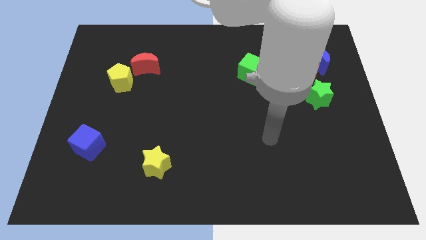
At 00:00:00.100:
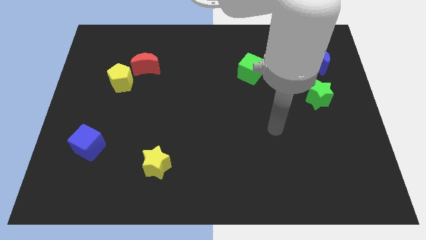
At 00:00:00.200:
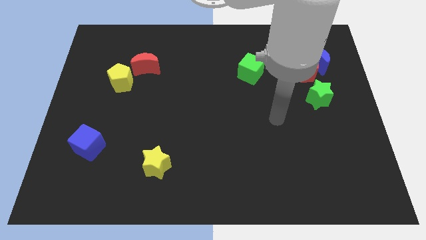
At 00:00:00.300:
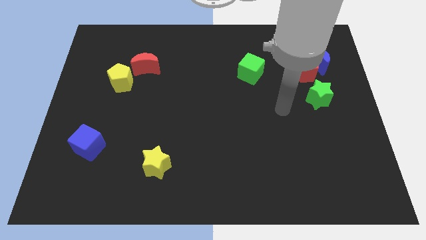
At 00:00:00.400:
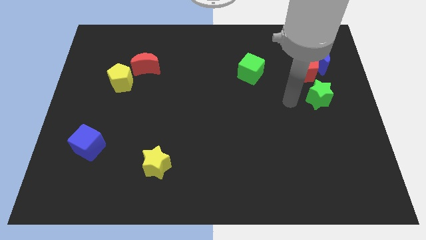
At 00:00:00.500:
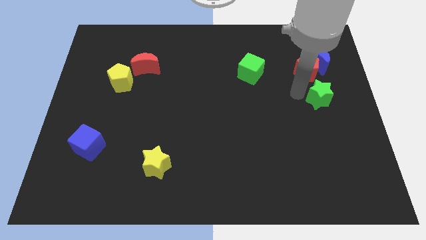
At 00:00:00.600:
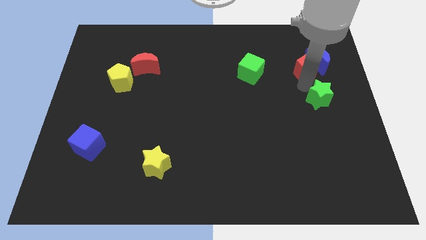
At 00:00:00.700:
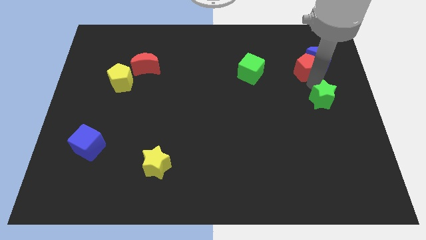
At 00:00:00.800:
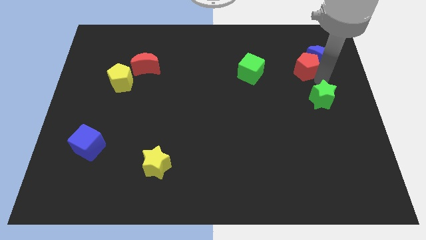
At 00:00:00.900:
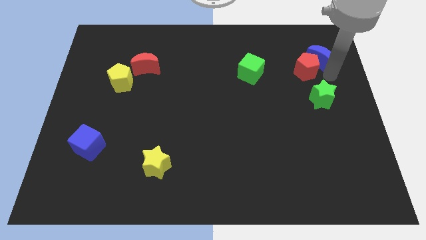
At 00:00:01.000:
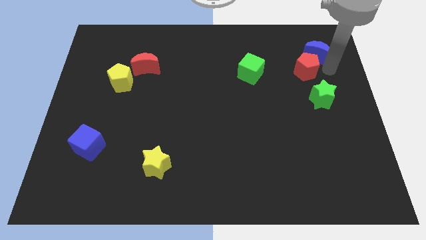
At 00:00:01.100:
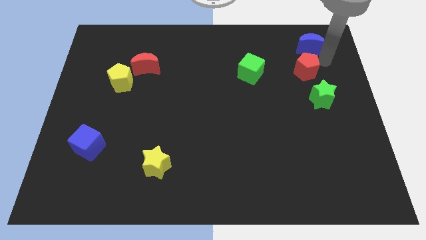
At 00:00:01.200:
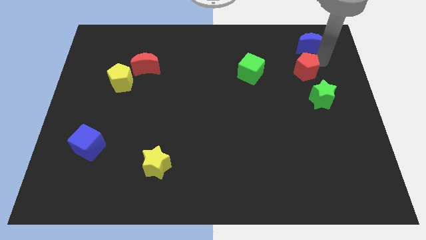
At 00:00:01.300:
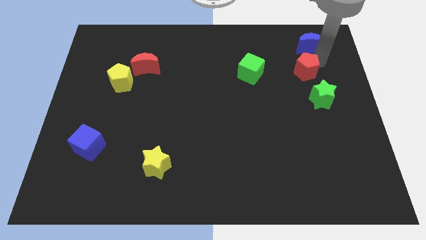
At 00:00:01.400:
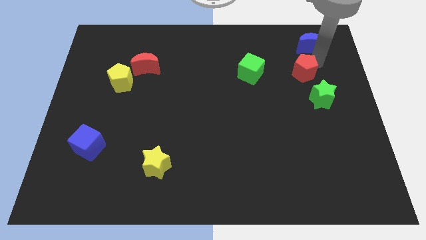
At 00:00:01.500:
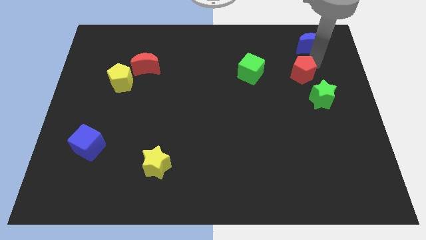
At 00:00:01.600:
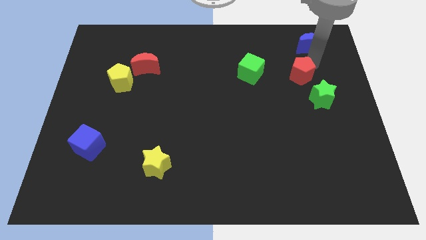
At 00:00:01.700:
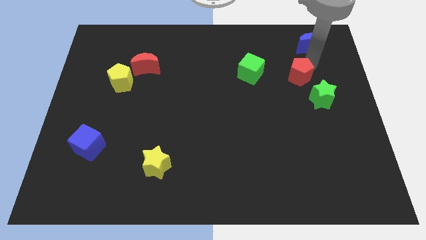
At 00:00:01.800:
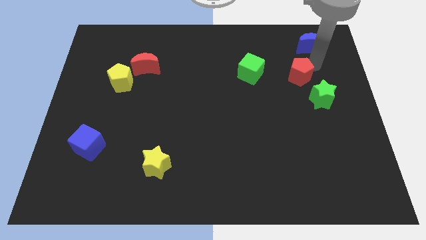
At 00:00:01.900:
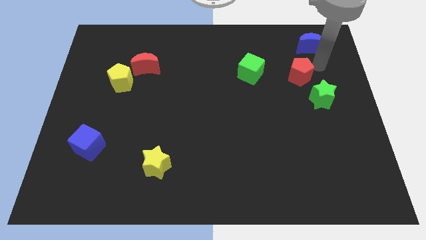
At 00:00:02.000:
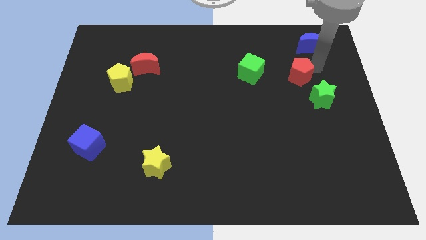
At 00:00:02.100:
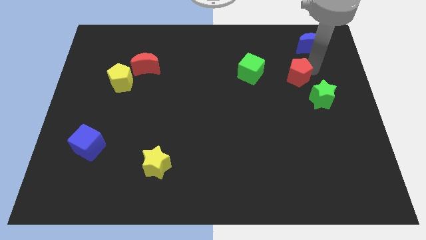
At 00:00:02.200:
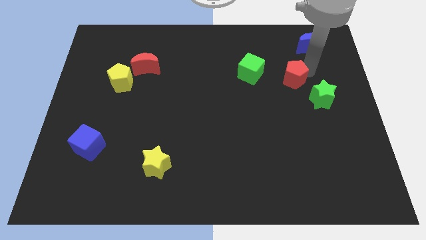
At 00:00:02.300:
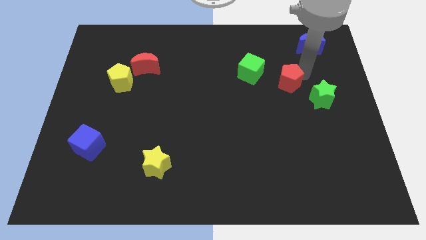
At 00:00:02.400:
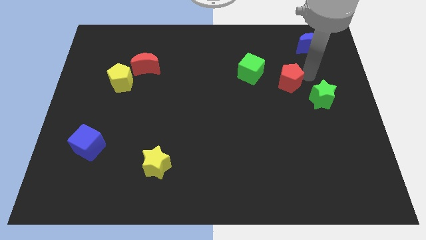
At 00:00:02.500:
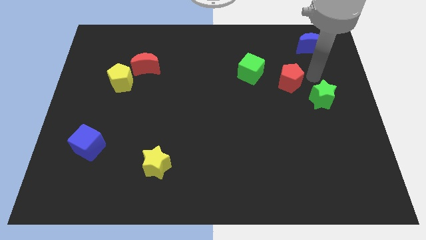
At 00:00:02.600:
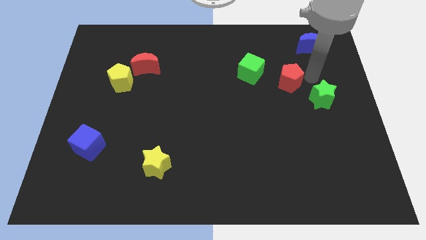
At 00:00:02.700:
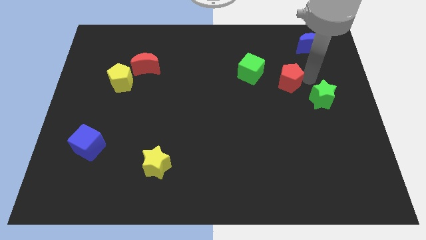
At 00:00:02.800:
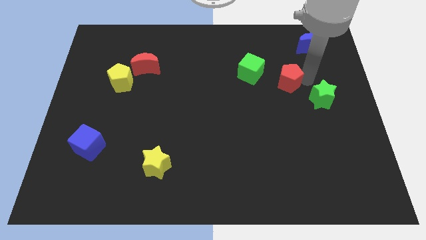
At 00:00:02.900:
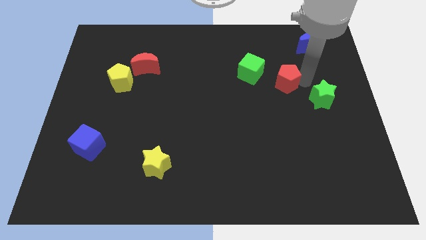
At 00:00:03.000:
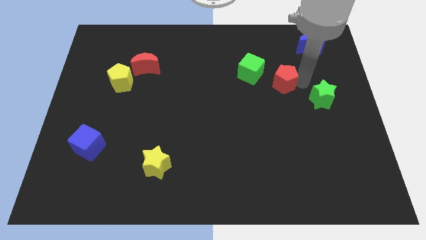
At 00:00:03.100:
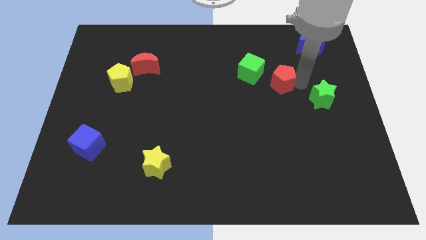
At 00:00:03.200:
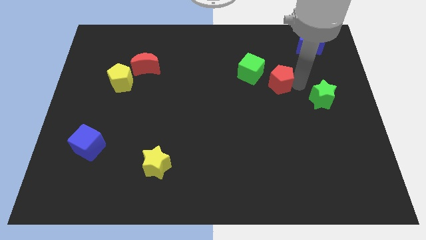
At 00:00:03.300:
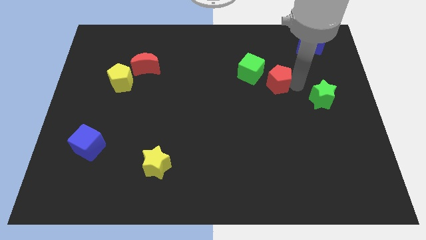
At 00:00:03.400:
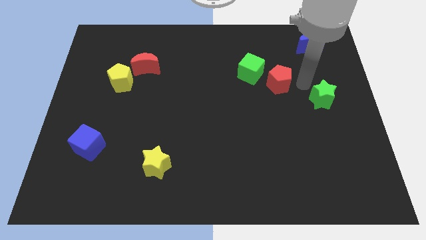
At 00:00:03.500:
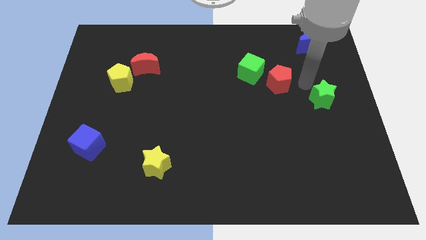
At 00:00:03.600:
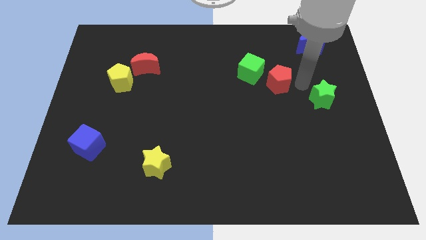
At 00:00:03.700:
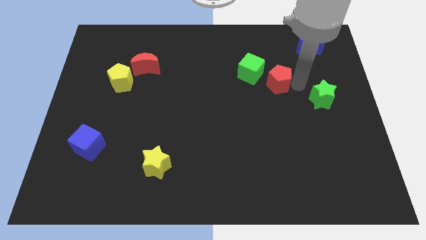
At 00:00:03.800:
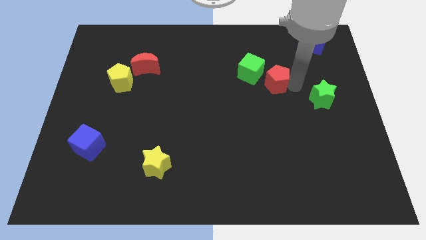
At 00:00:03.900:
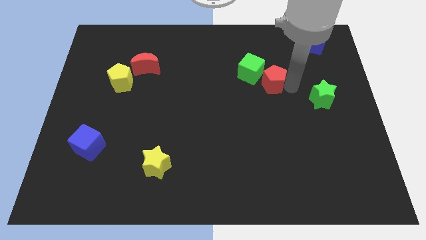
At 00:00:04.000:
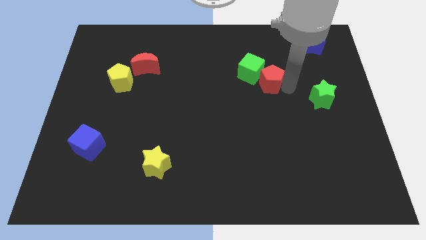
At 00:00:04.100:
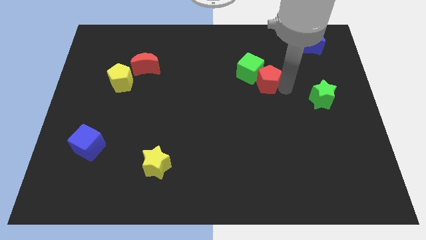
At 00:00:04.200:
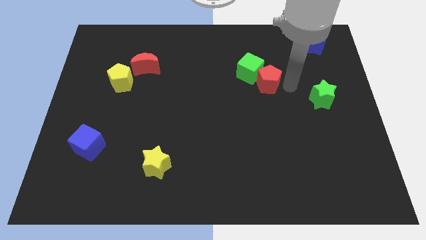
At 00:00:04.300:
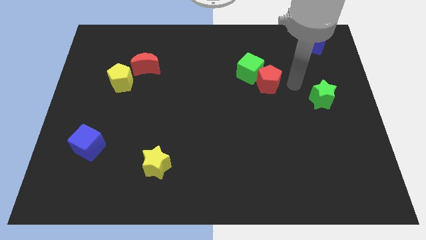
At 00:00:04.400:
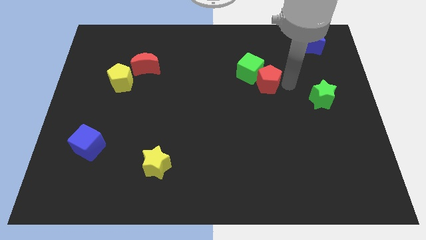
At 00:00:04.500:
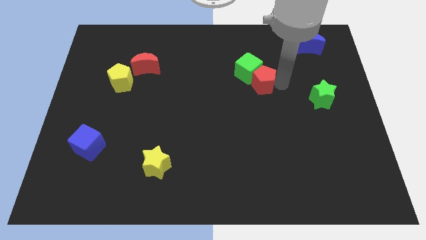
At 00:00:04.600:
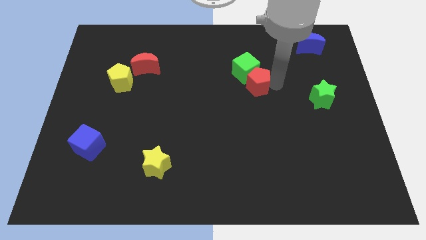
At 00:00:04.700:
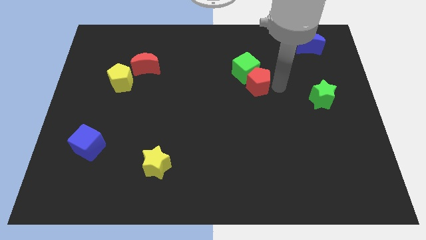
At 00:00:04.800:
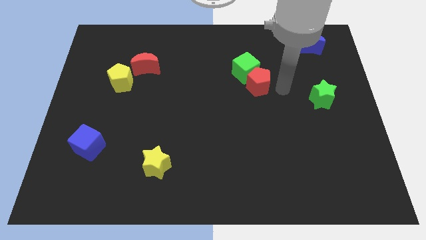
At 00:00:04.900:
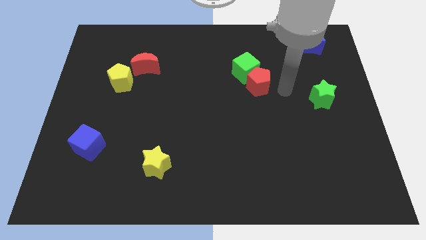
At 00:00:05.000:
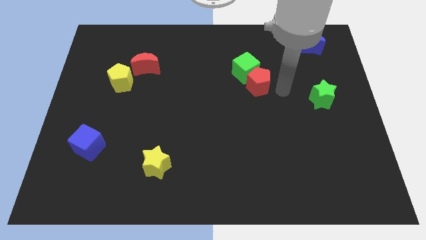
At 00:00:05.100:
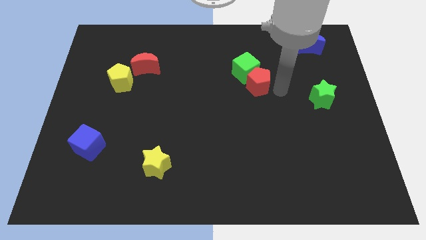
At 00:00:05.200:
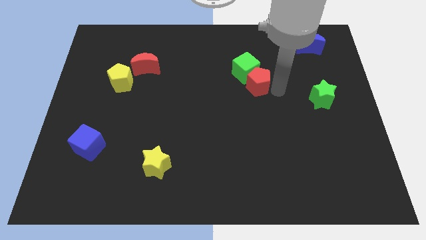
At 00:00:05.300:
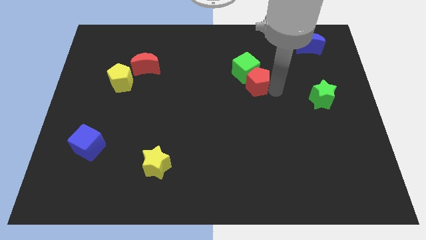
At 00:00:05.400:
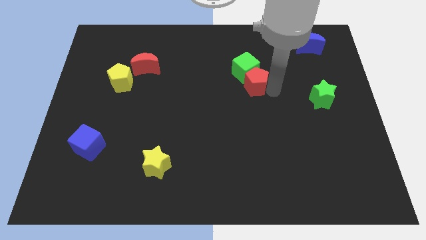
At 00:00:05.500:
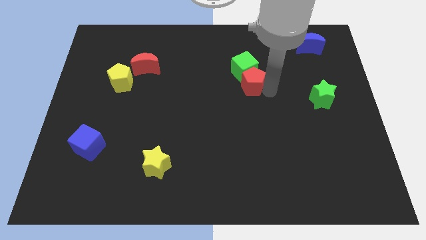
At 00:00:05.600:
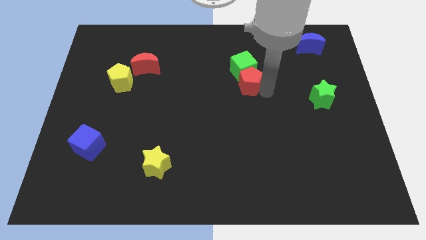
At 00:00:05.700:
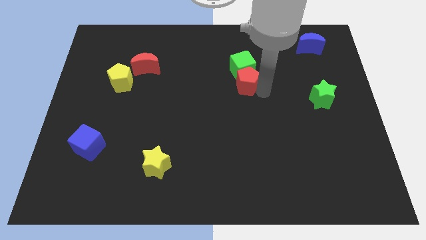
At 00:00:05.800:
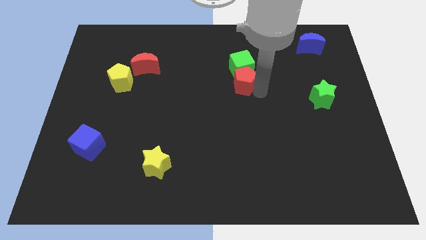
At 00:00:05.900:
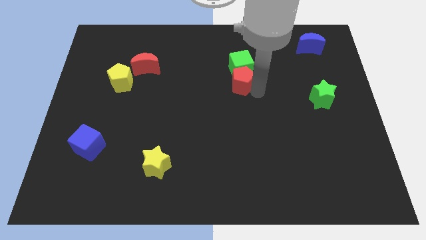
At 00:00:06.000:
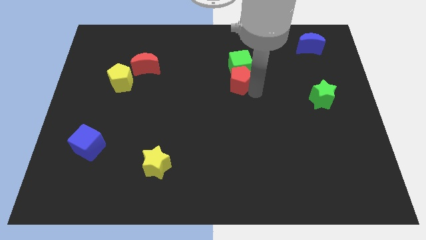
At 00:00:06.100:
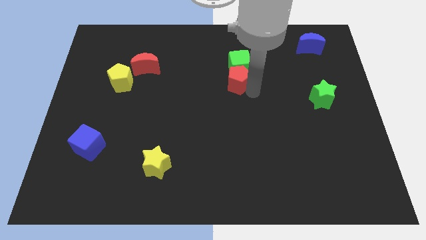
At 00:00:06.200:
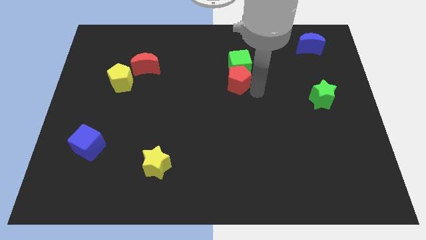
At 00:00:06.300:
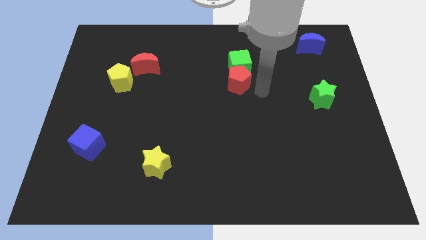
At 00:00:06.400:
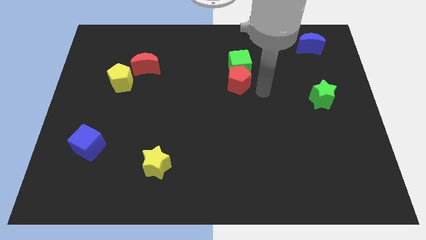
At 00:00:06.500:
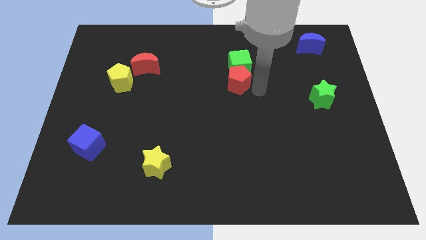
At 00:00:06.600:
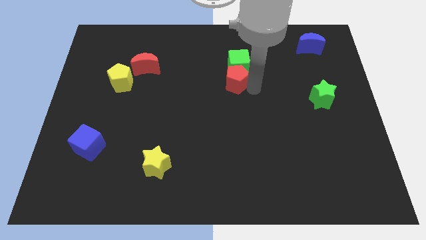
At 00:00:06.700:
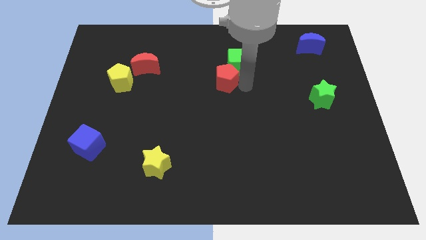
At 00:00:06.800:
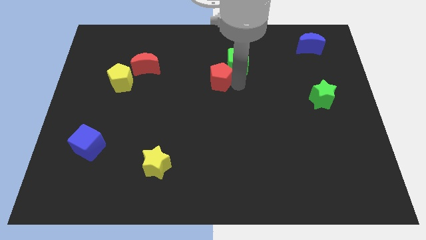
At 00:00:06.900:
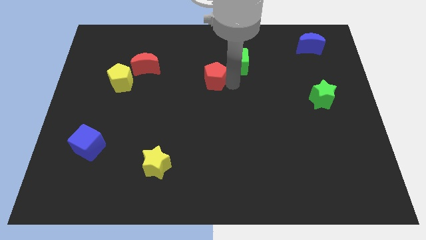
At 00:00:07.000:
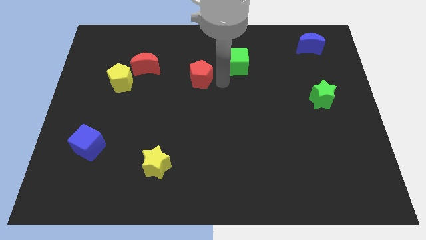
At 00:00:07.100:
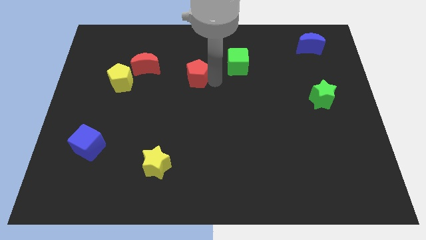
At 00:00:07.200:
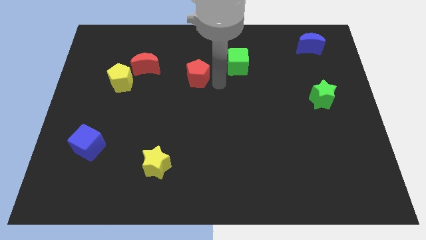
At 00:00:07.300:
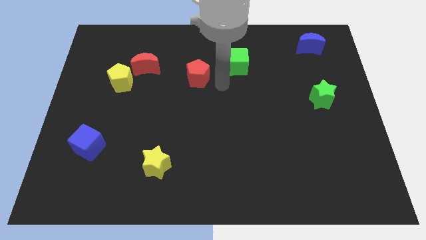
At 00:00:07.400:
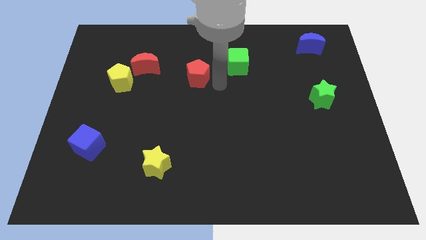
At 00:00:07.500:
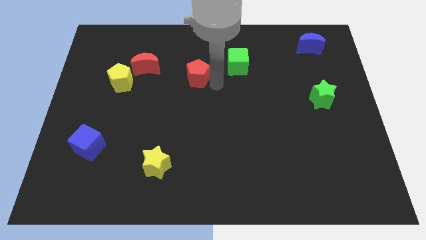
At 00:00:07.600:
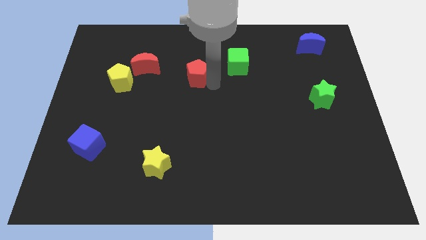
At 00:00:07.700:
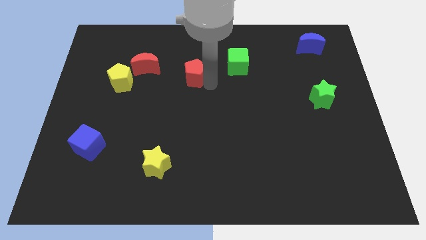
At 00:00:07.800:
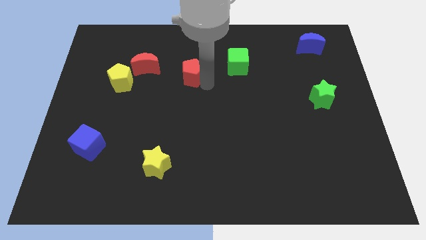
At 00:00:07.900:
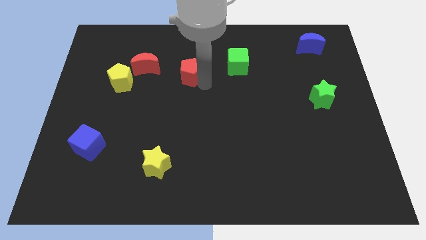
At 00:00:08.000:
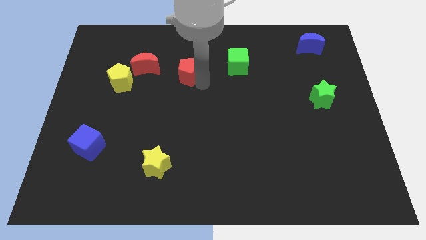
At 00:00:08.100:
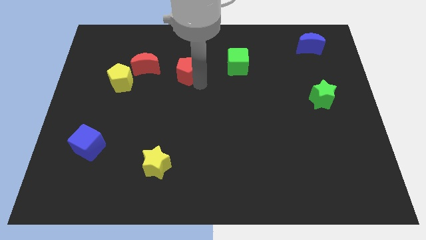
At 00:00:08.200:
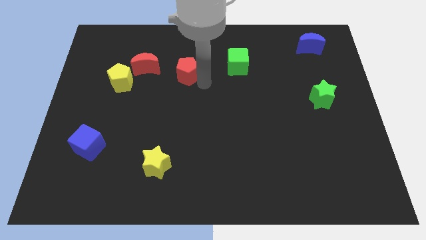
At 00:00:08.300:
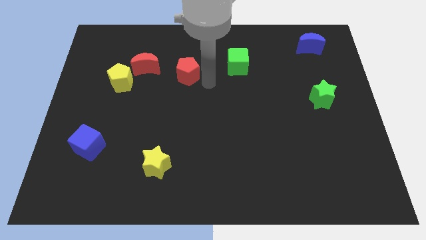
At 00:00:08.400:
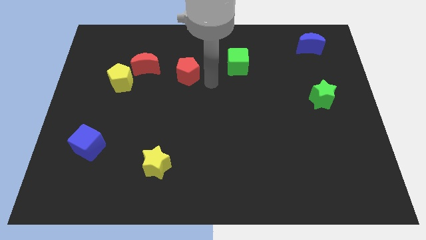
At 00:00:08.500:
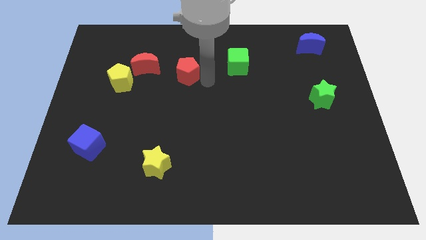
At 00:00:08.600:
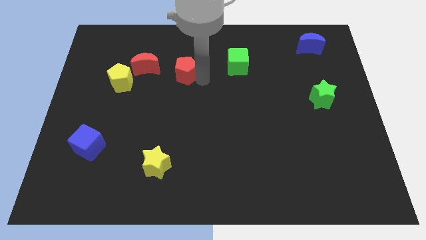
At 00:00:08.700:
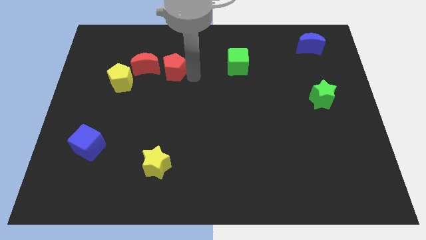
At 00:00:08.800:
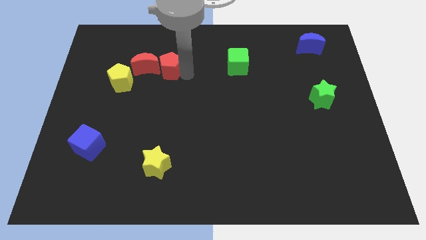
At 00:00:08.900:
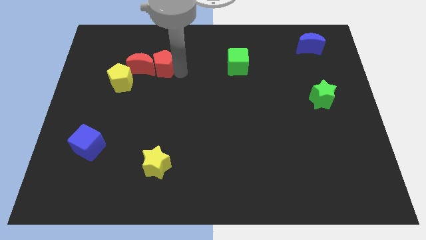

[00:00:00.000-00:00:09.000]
move the red pentagon to the red moon
